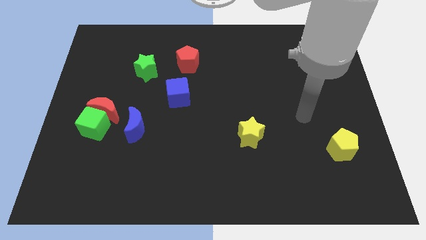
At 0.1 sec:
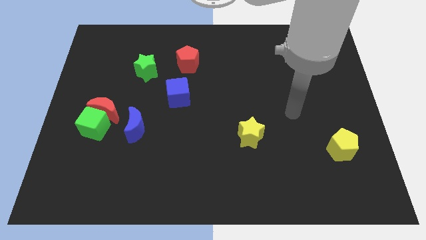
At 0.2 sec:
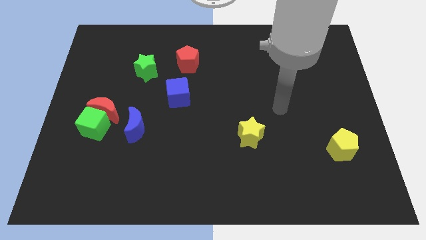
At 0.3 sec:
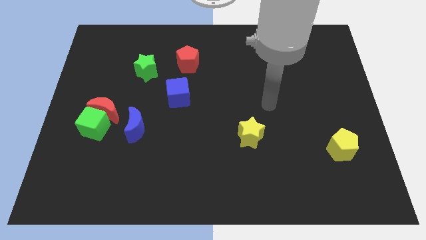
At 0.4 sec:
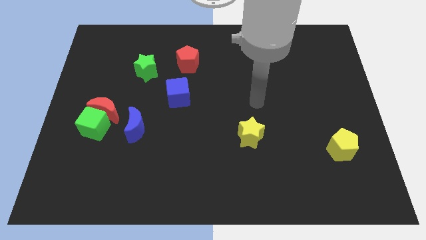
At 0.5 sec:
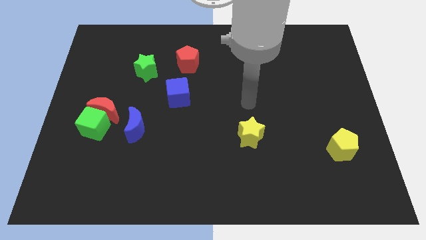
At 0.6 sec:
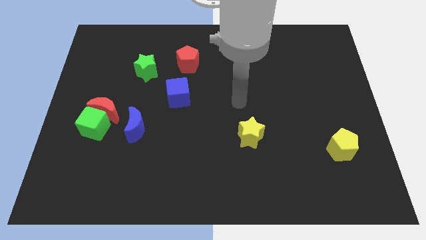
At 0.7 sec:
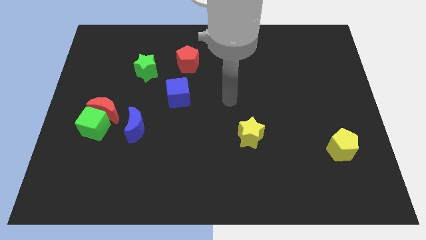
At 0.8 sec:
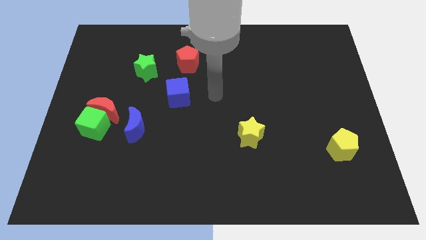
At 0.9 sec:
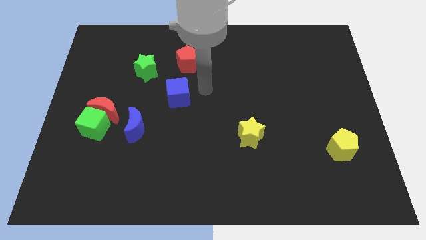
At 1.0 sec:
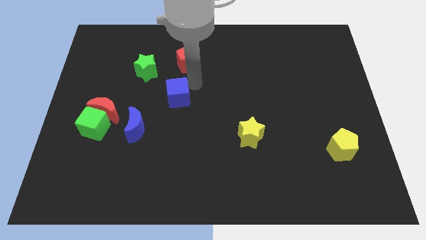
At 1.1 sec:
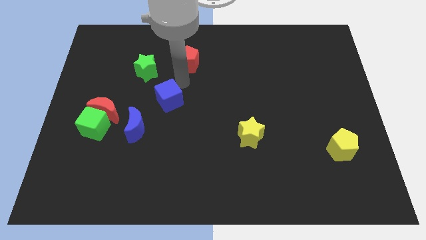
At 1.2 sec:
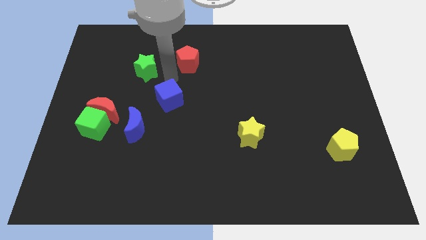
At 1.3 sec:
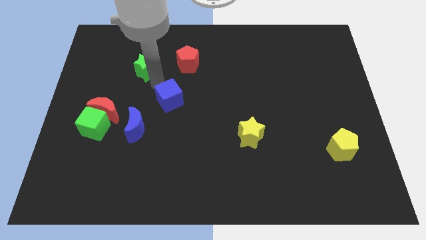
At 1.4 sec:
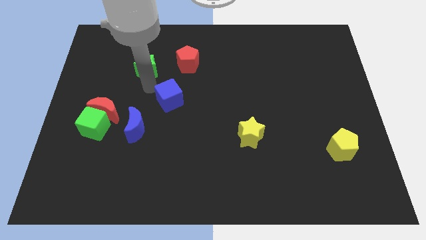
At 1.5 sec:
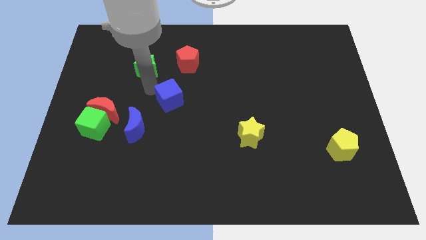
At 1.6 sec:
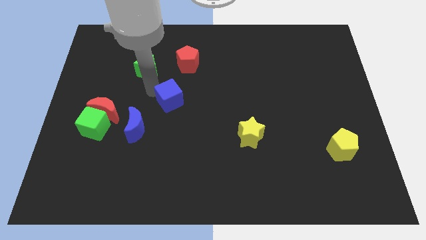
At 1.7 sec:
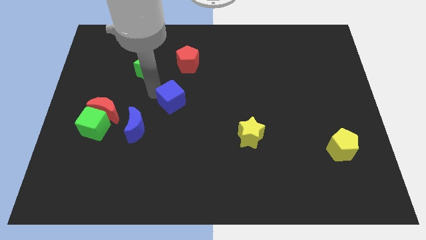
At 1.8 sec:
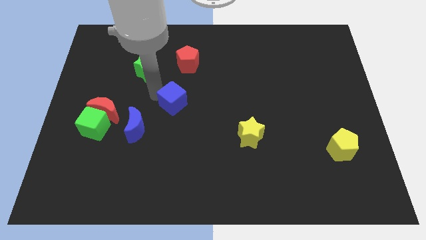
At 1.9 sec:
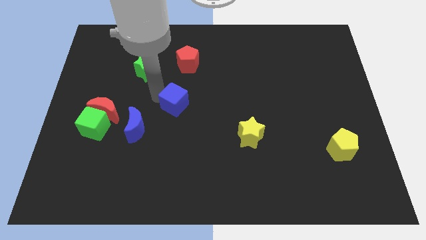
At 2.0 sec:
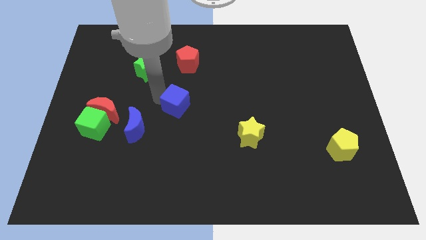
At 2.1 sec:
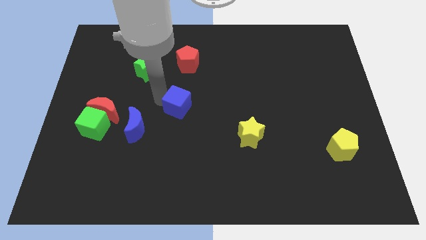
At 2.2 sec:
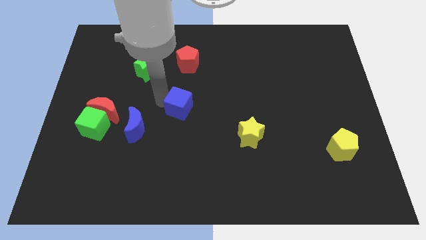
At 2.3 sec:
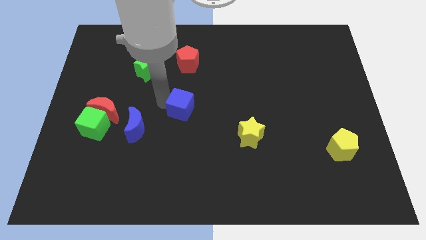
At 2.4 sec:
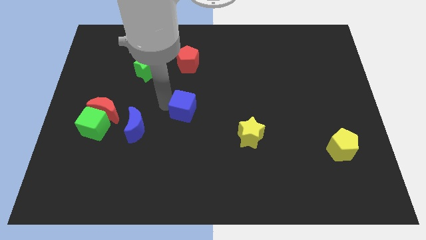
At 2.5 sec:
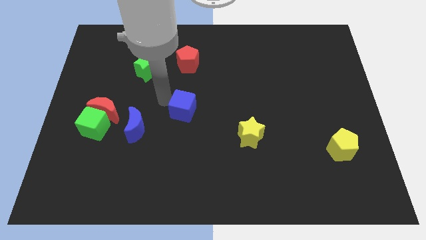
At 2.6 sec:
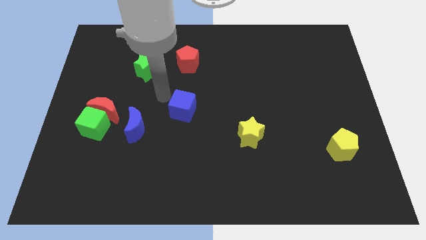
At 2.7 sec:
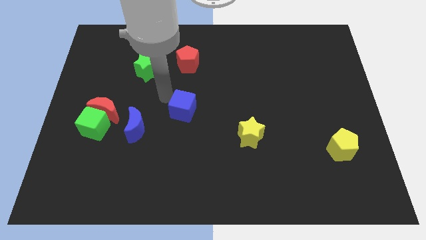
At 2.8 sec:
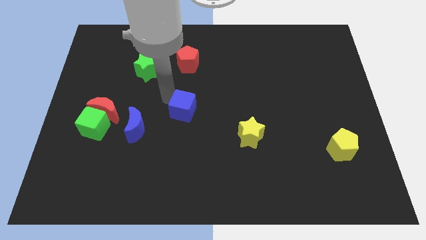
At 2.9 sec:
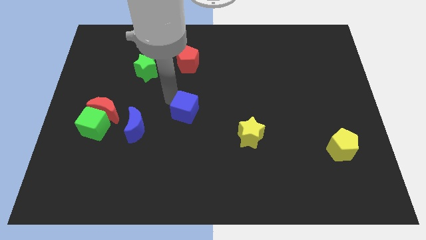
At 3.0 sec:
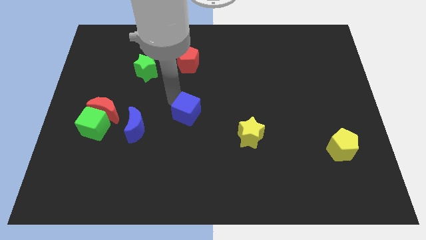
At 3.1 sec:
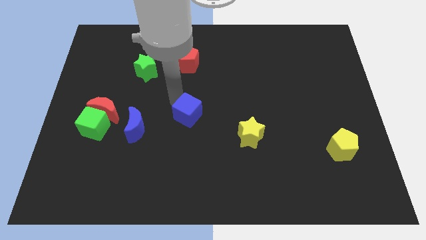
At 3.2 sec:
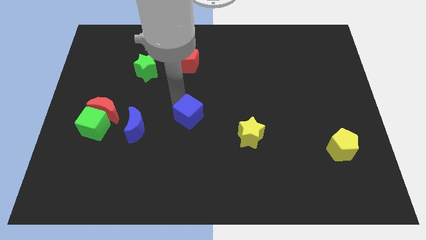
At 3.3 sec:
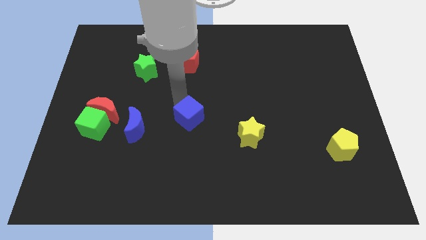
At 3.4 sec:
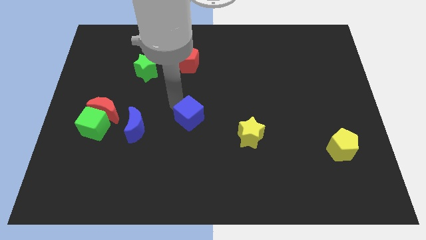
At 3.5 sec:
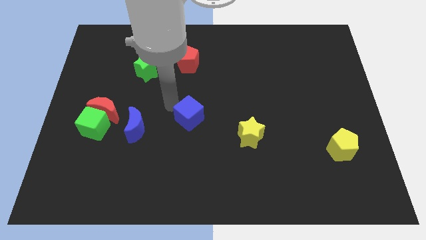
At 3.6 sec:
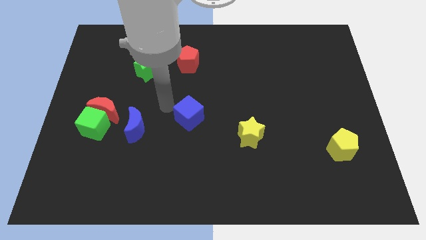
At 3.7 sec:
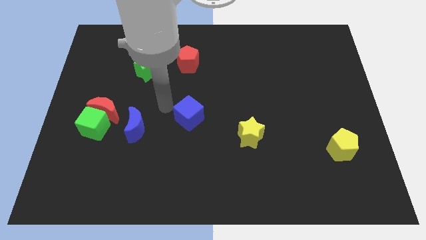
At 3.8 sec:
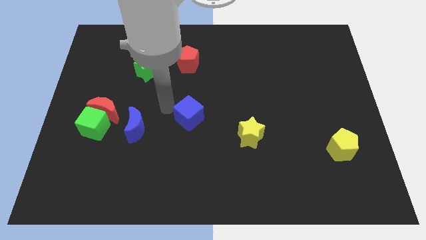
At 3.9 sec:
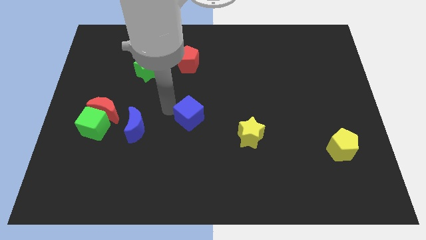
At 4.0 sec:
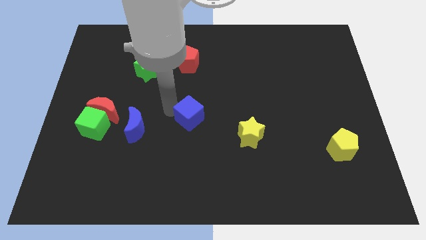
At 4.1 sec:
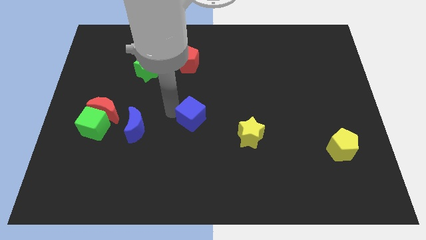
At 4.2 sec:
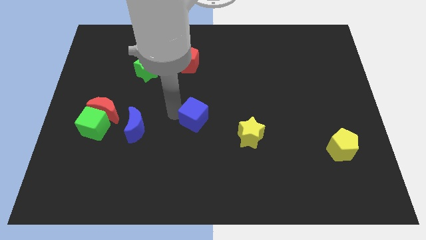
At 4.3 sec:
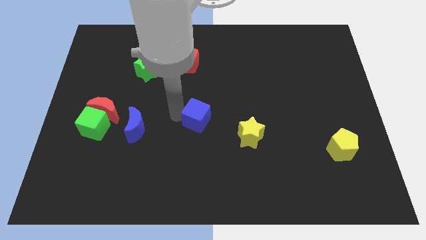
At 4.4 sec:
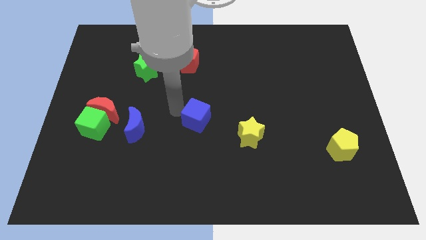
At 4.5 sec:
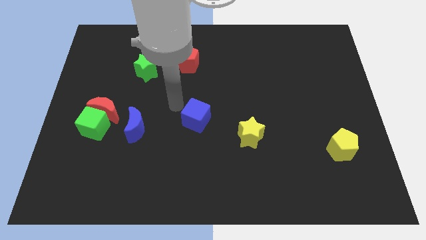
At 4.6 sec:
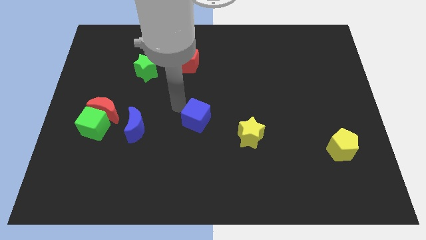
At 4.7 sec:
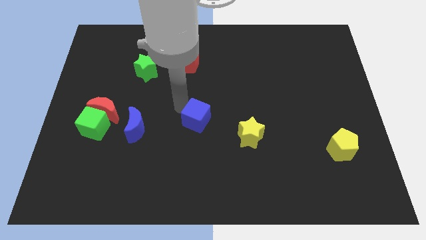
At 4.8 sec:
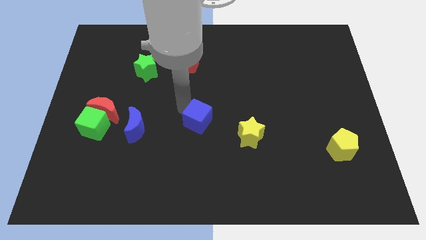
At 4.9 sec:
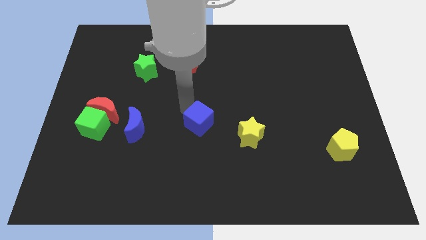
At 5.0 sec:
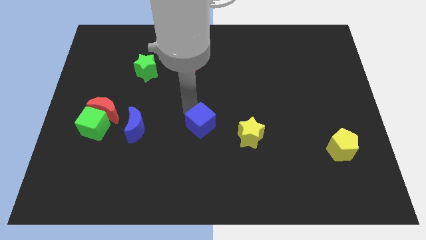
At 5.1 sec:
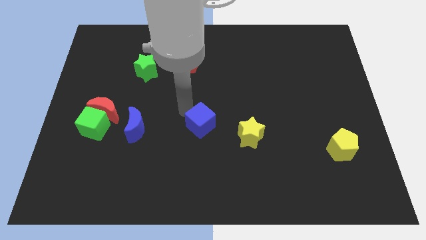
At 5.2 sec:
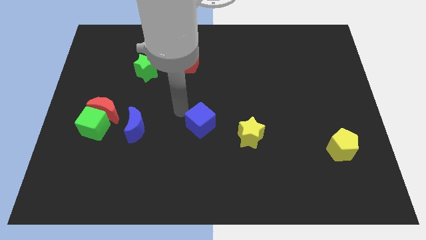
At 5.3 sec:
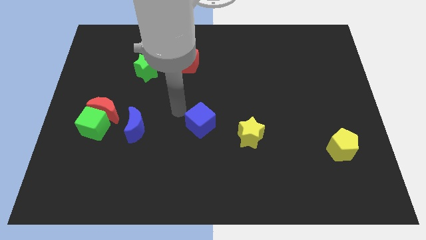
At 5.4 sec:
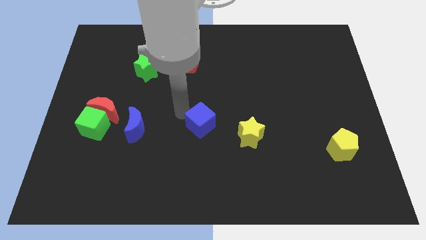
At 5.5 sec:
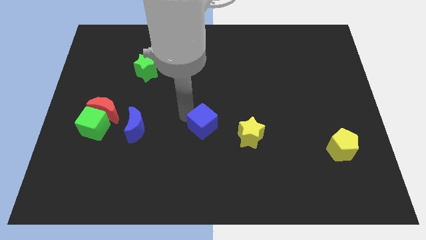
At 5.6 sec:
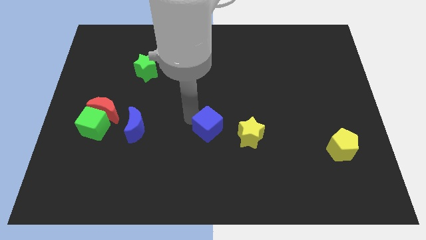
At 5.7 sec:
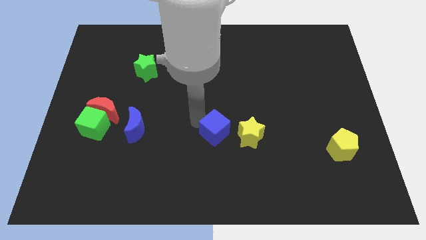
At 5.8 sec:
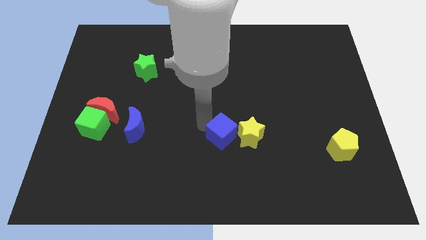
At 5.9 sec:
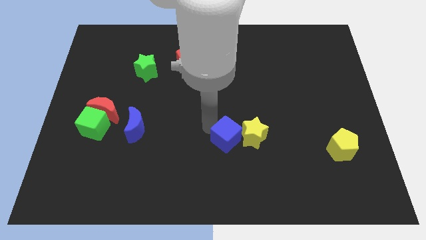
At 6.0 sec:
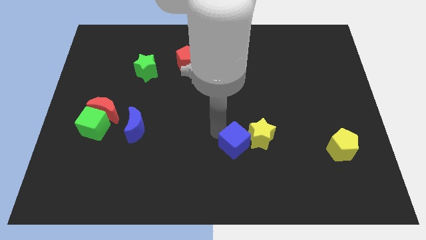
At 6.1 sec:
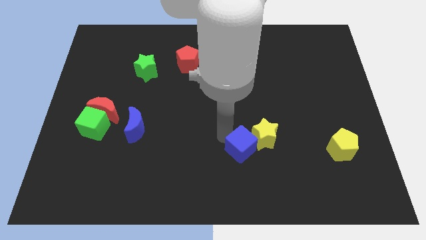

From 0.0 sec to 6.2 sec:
move the blue cube down and right diagonally

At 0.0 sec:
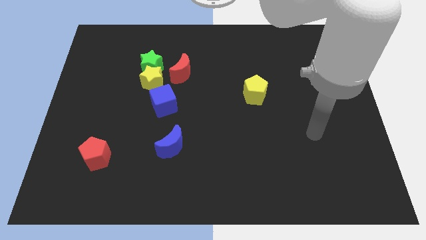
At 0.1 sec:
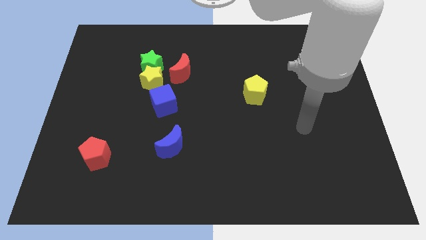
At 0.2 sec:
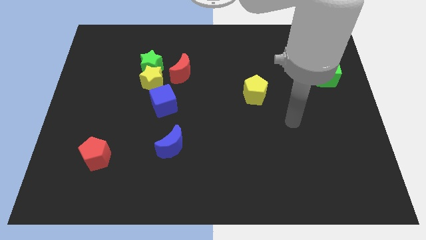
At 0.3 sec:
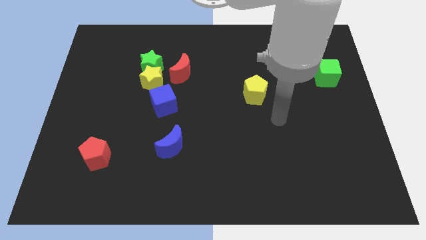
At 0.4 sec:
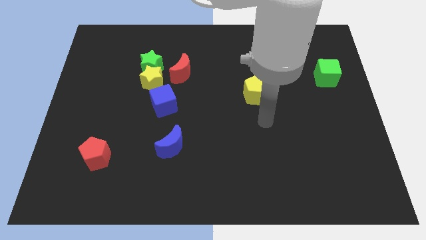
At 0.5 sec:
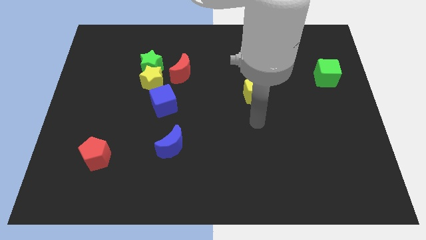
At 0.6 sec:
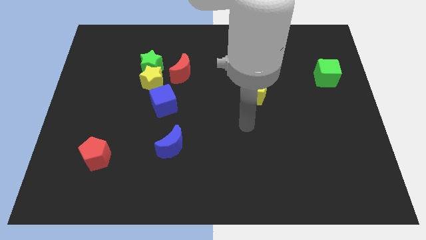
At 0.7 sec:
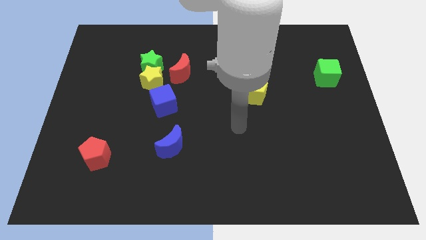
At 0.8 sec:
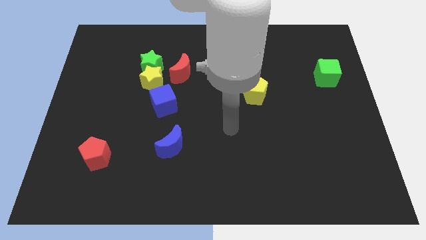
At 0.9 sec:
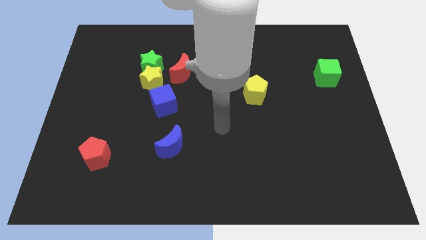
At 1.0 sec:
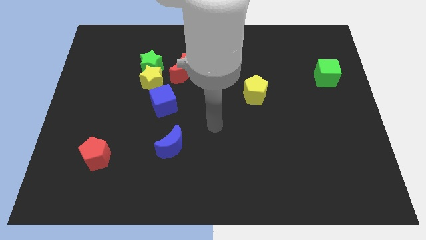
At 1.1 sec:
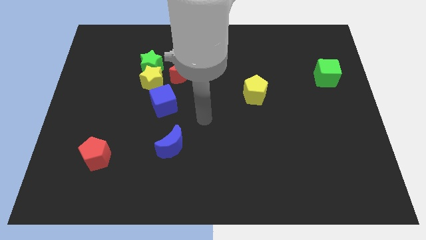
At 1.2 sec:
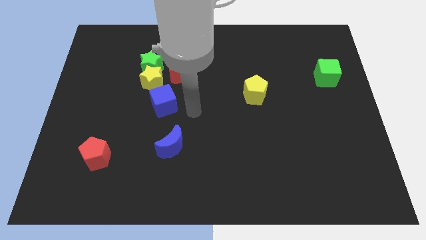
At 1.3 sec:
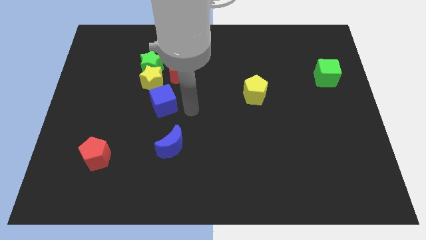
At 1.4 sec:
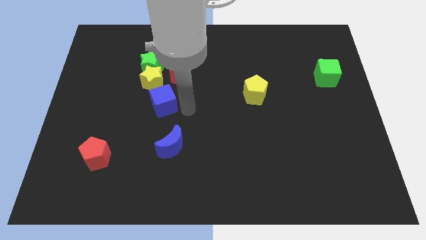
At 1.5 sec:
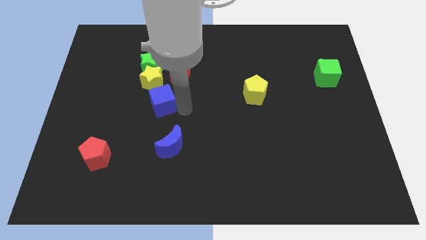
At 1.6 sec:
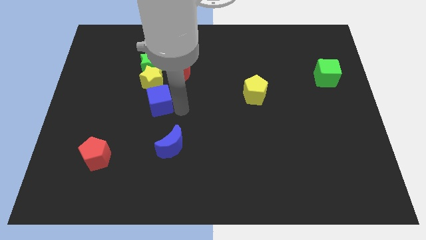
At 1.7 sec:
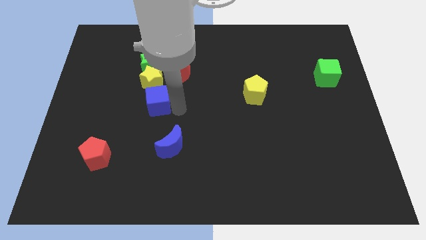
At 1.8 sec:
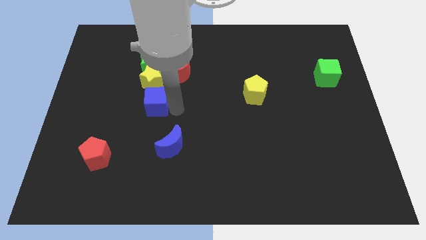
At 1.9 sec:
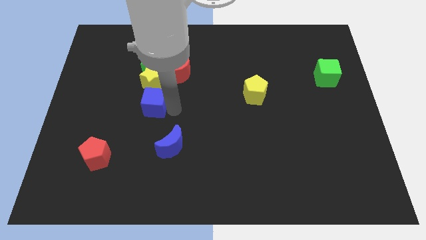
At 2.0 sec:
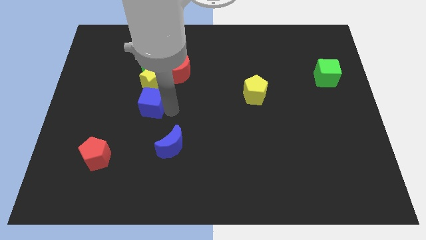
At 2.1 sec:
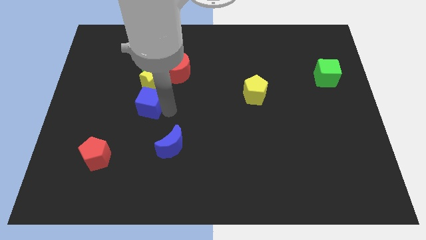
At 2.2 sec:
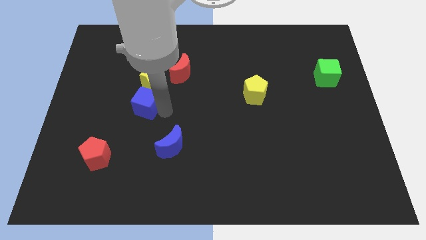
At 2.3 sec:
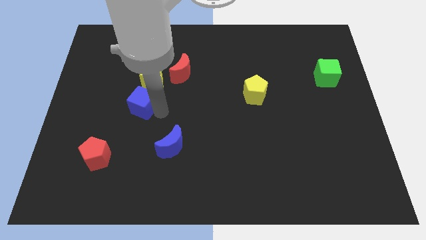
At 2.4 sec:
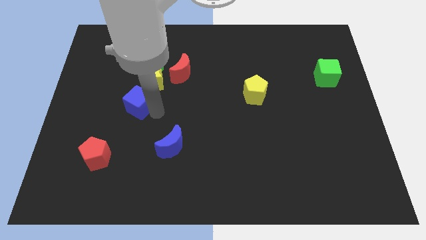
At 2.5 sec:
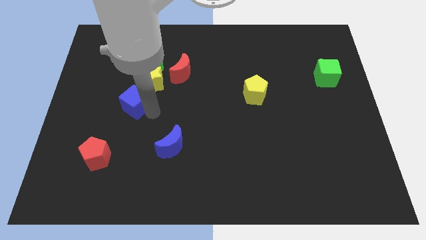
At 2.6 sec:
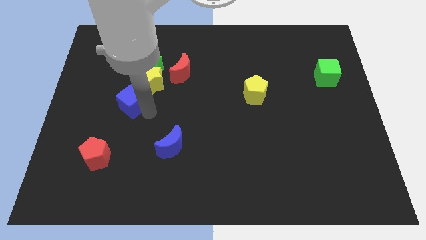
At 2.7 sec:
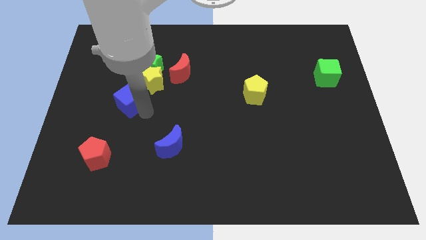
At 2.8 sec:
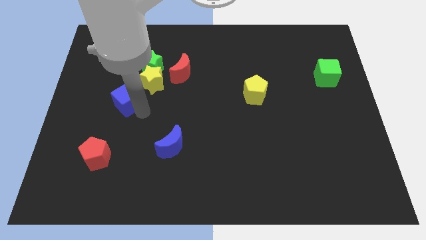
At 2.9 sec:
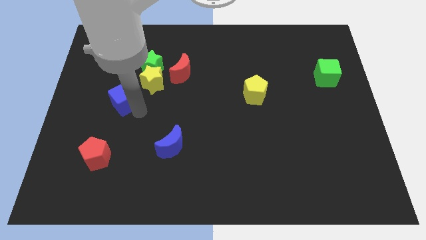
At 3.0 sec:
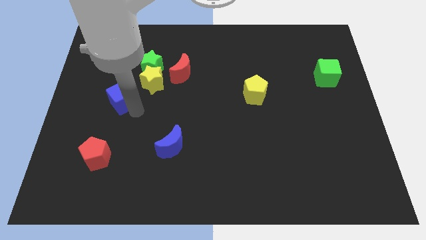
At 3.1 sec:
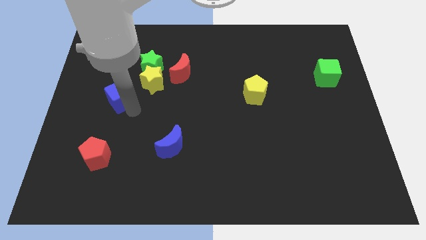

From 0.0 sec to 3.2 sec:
push the blue cube diagonally upwards and left somewhat
